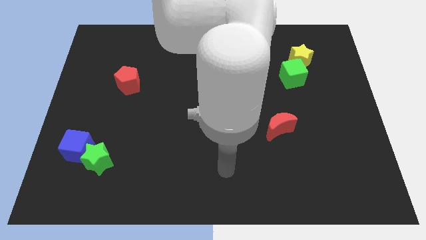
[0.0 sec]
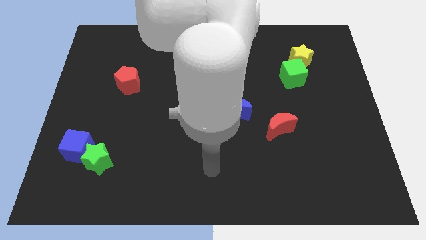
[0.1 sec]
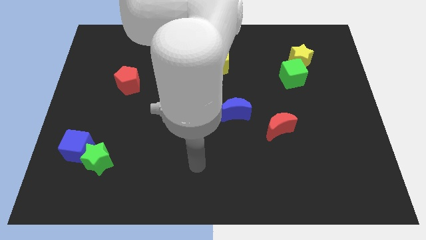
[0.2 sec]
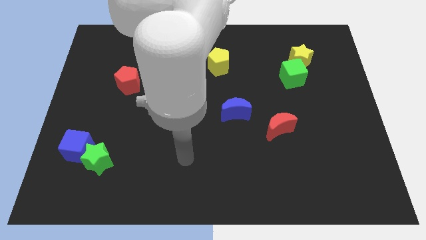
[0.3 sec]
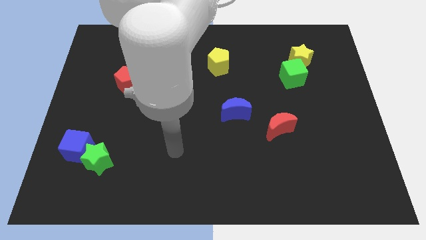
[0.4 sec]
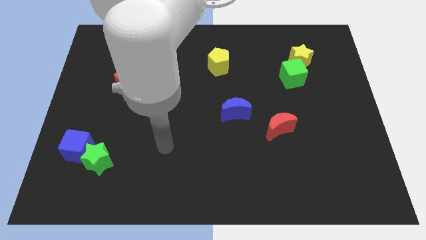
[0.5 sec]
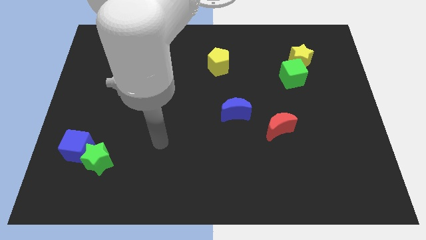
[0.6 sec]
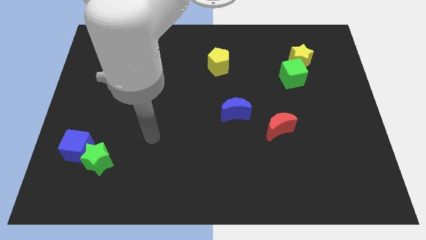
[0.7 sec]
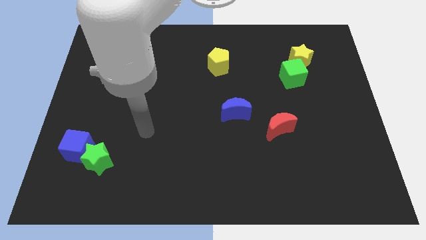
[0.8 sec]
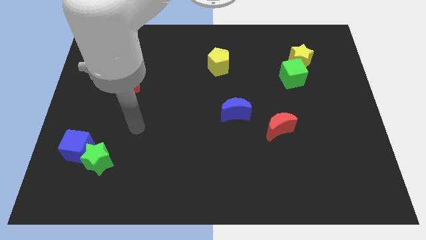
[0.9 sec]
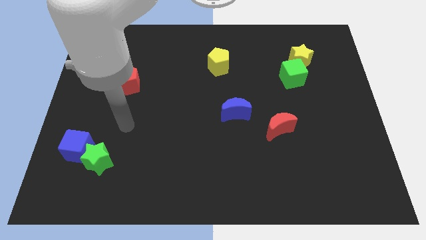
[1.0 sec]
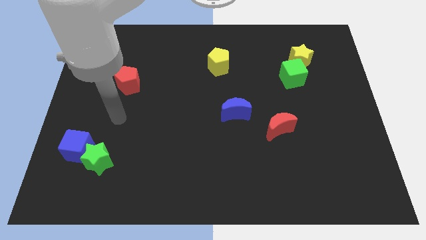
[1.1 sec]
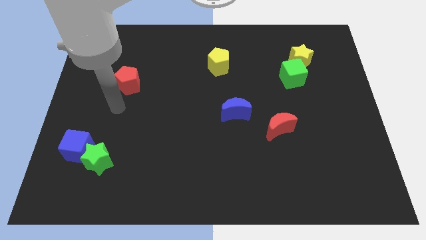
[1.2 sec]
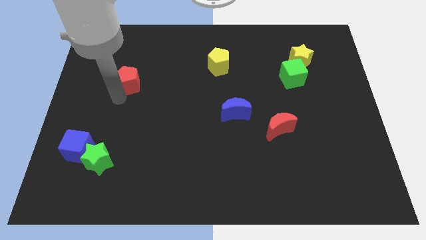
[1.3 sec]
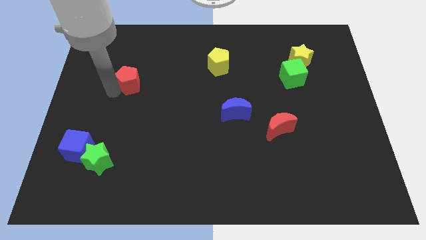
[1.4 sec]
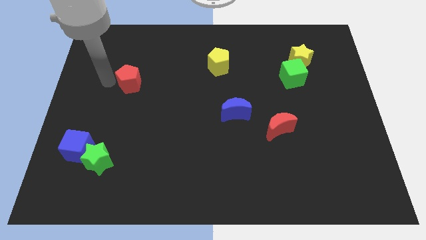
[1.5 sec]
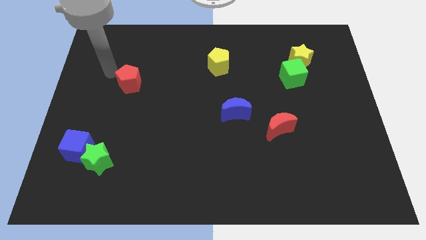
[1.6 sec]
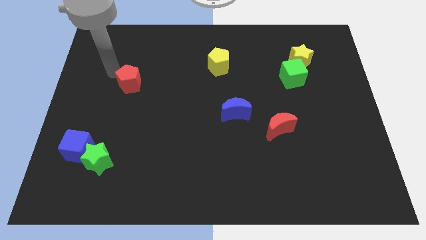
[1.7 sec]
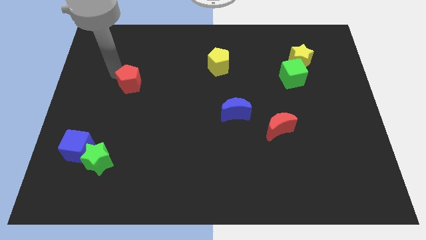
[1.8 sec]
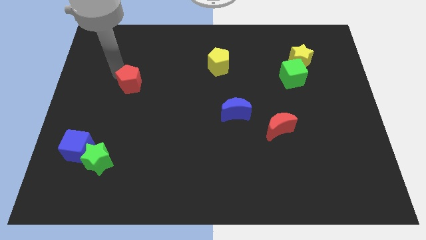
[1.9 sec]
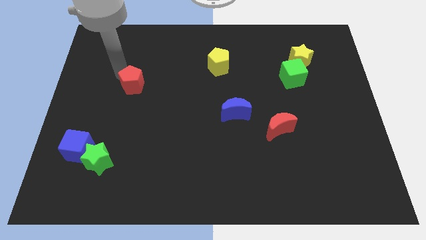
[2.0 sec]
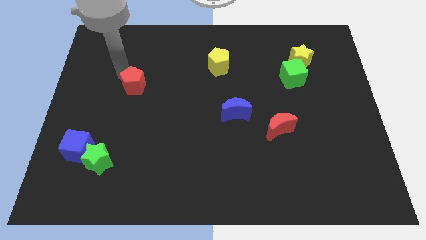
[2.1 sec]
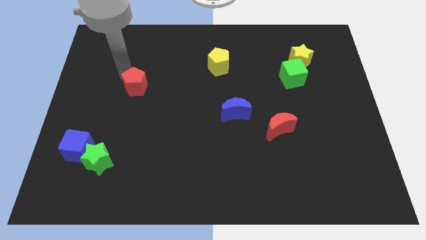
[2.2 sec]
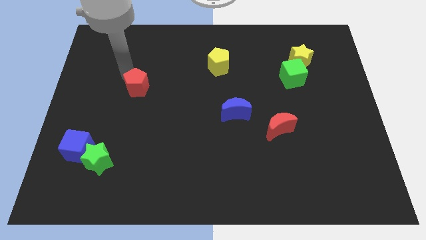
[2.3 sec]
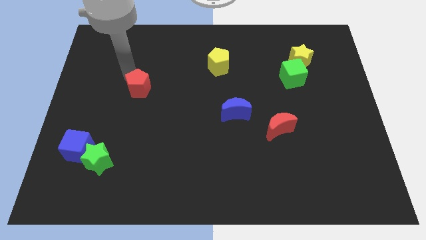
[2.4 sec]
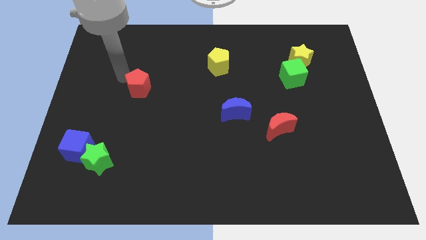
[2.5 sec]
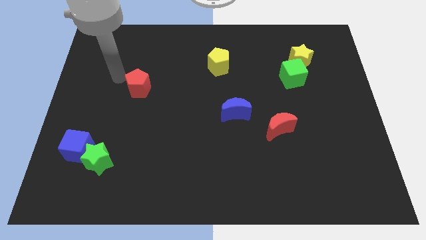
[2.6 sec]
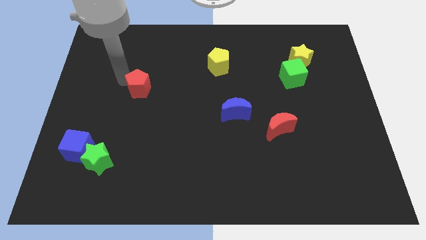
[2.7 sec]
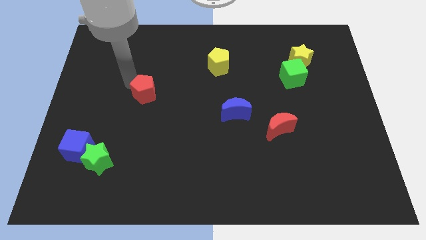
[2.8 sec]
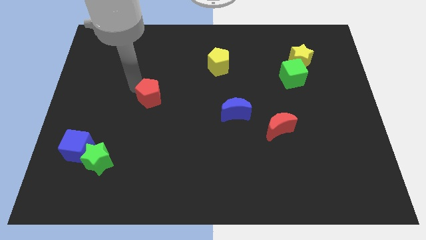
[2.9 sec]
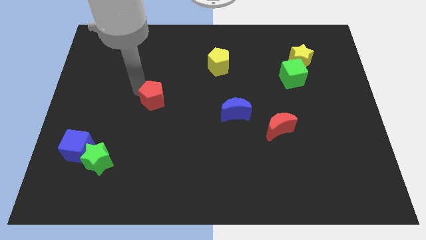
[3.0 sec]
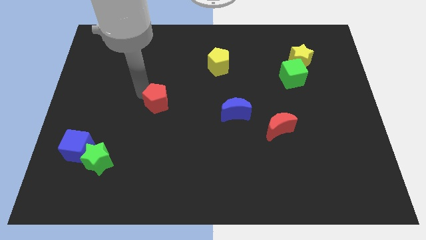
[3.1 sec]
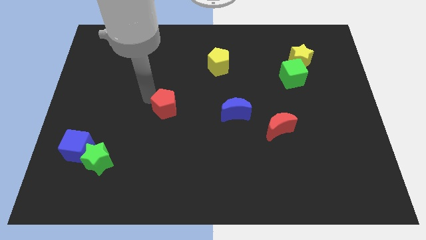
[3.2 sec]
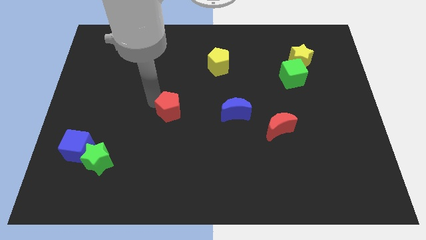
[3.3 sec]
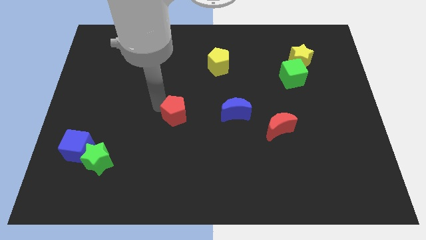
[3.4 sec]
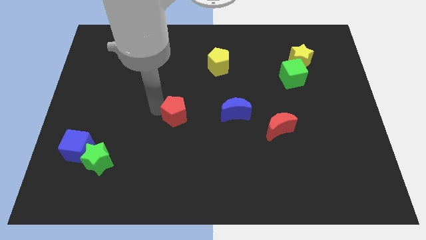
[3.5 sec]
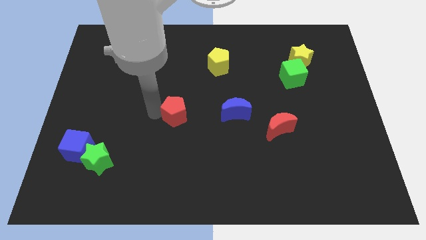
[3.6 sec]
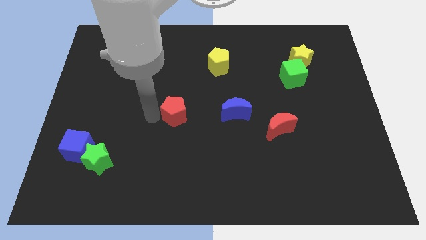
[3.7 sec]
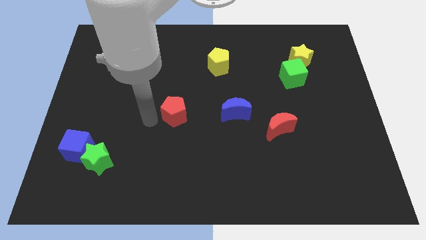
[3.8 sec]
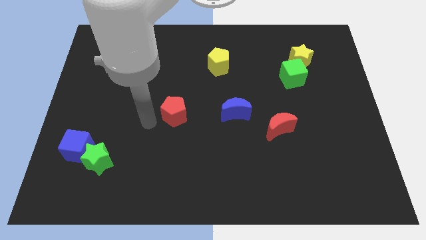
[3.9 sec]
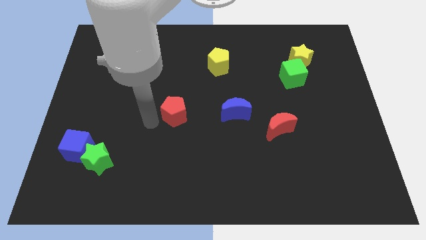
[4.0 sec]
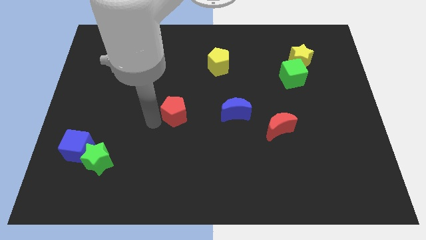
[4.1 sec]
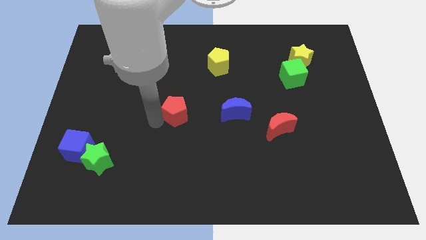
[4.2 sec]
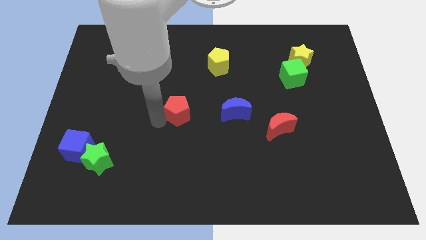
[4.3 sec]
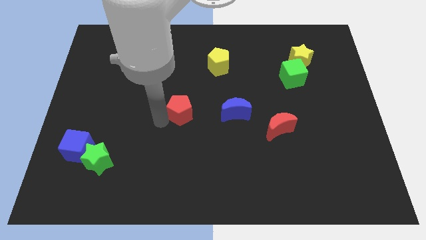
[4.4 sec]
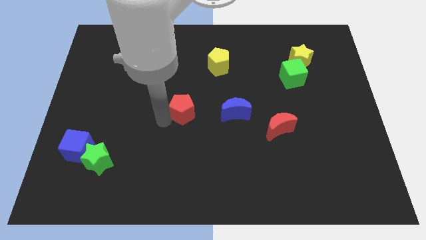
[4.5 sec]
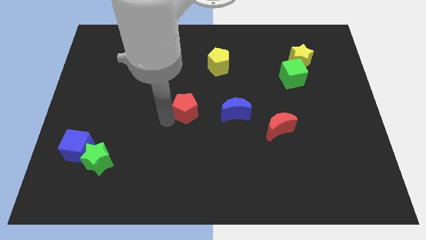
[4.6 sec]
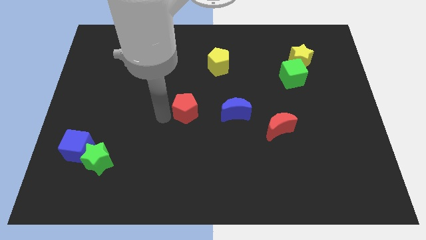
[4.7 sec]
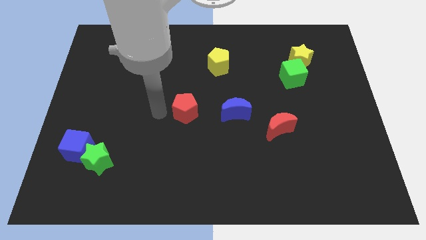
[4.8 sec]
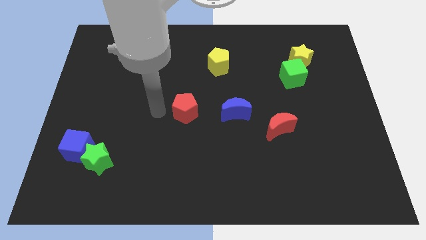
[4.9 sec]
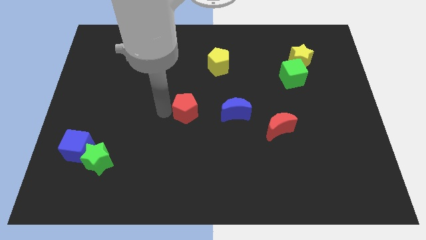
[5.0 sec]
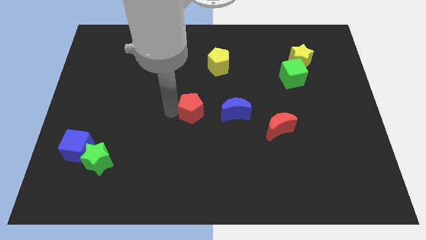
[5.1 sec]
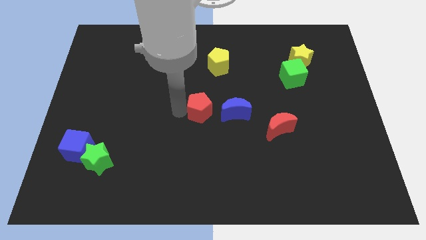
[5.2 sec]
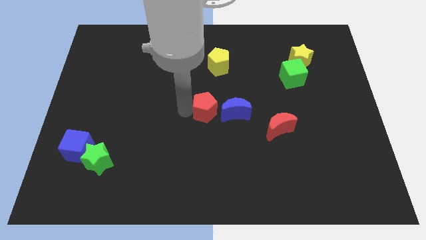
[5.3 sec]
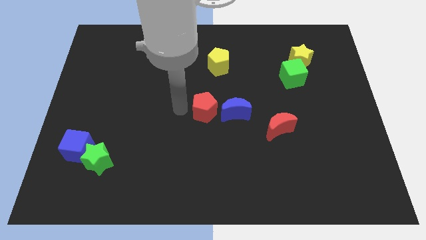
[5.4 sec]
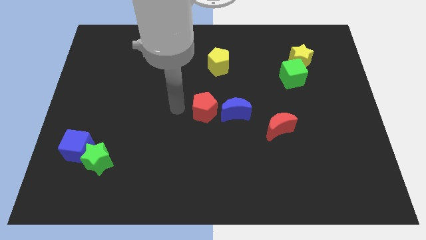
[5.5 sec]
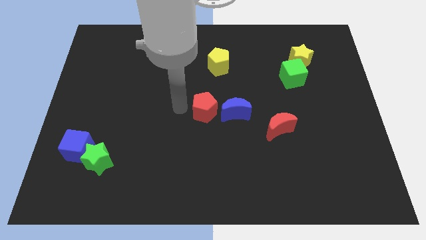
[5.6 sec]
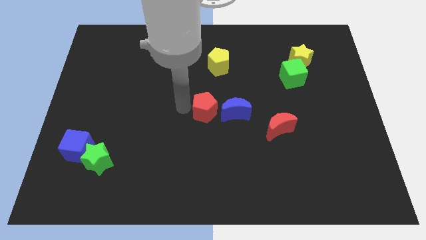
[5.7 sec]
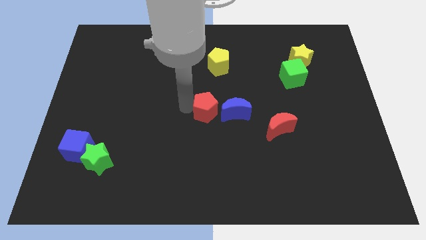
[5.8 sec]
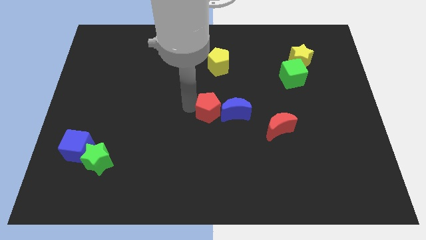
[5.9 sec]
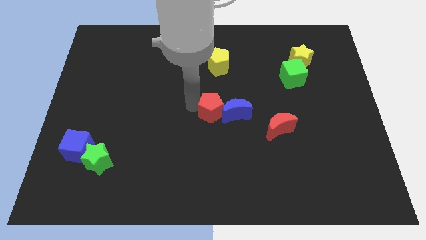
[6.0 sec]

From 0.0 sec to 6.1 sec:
slide the red pentagon to the blue moon

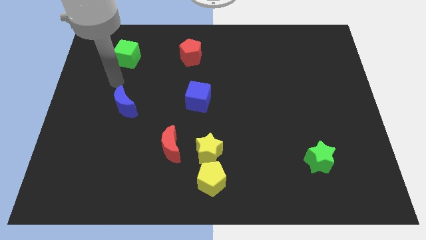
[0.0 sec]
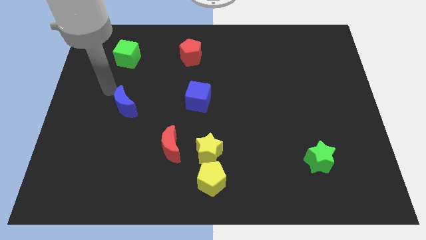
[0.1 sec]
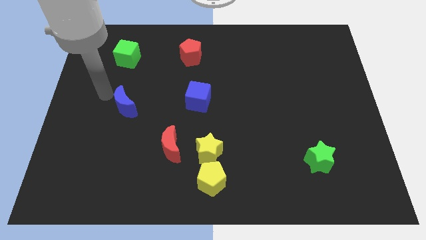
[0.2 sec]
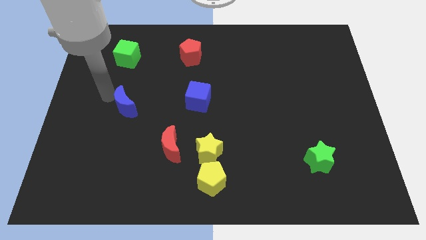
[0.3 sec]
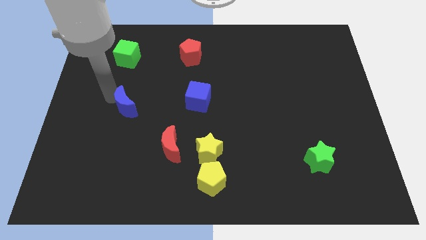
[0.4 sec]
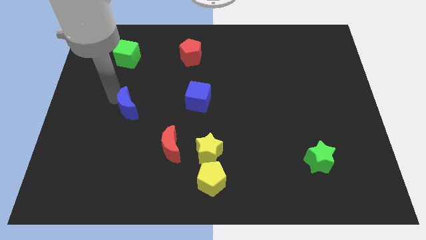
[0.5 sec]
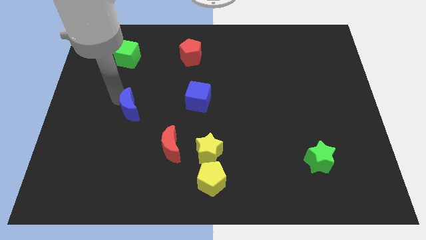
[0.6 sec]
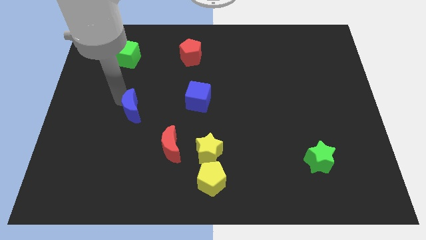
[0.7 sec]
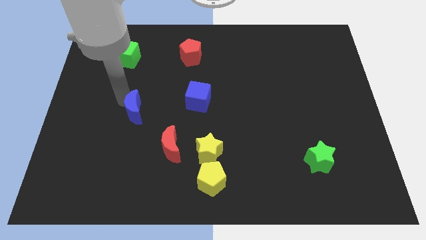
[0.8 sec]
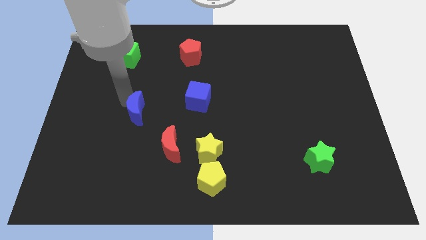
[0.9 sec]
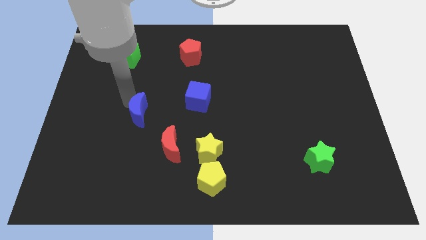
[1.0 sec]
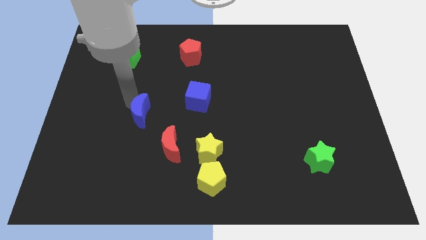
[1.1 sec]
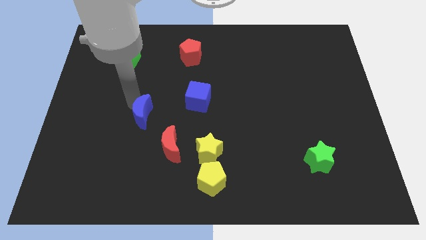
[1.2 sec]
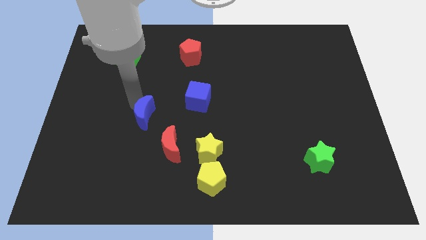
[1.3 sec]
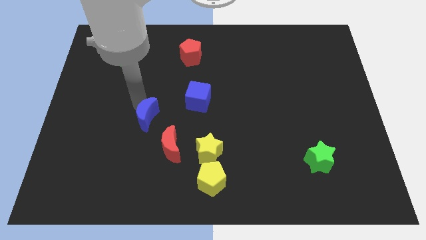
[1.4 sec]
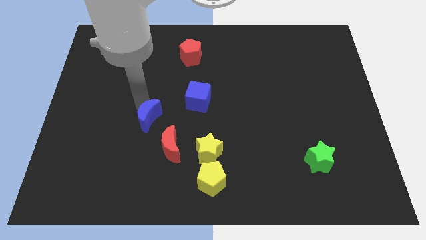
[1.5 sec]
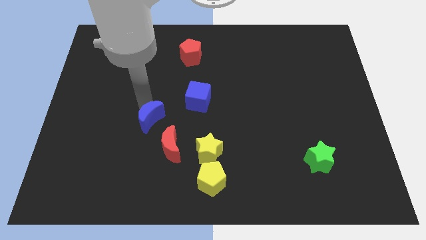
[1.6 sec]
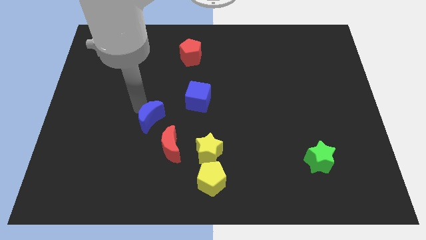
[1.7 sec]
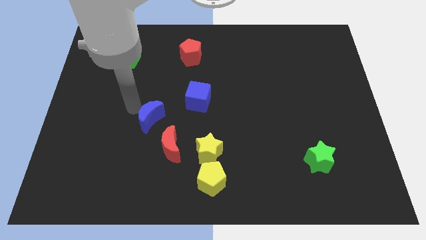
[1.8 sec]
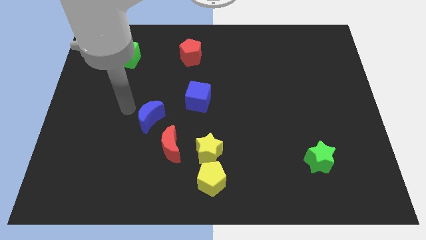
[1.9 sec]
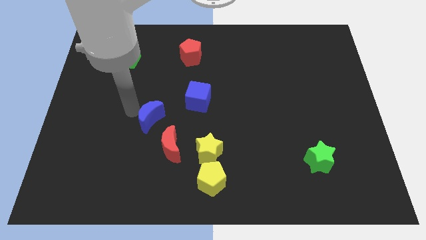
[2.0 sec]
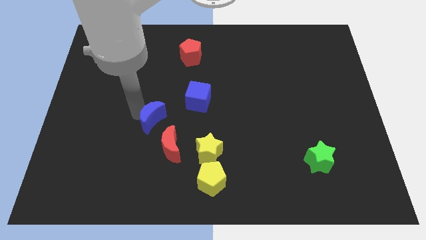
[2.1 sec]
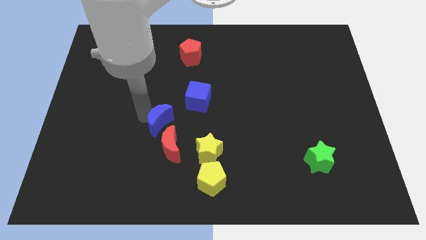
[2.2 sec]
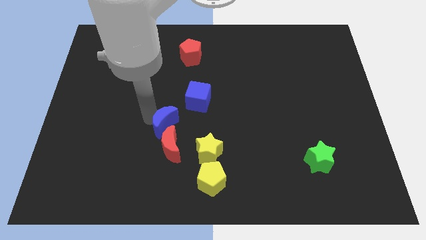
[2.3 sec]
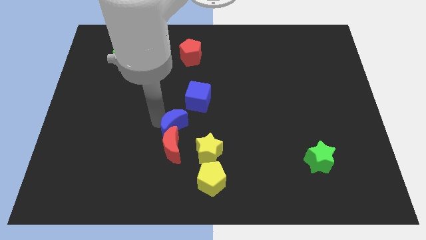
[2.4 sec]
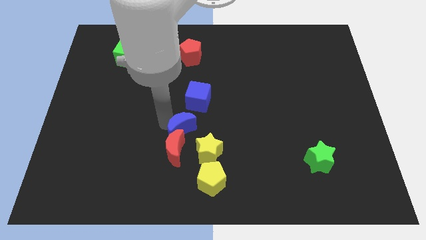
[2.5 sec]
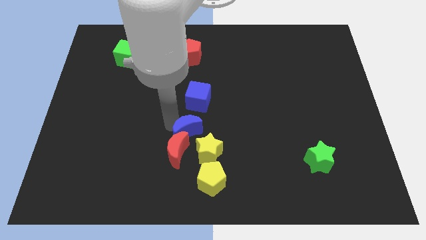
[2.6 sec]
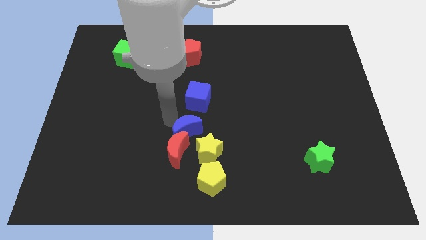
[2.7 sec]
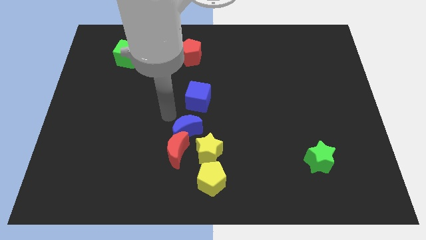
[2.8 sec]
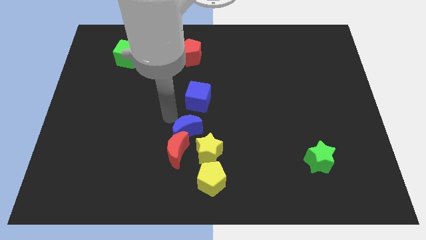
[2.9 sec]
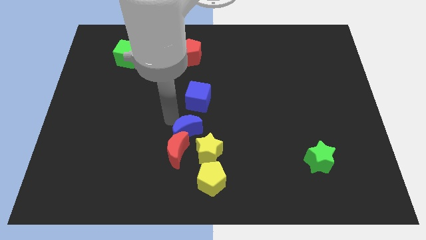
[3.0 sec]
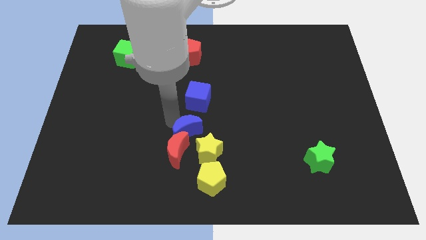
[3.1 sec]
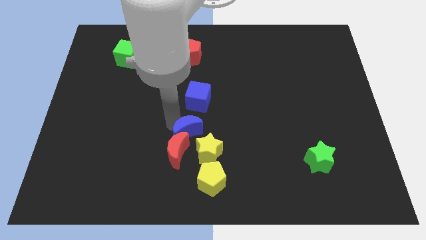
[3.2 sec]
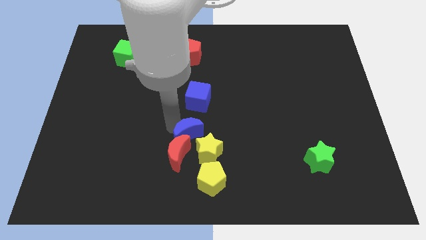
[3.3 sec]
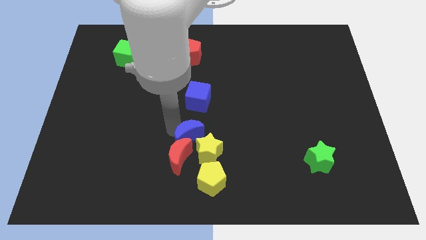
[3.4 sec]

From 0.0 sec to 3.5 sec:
slide the blue moon to the yellow star
